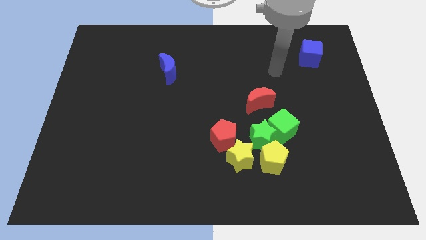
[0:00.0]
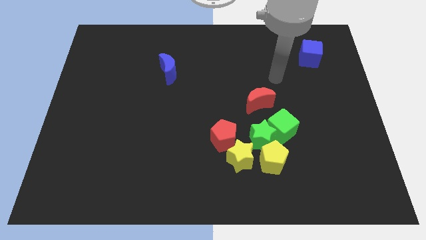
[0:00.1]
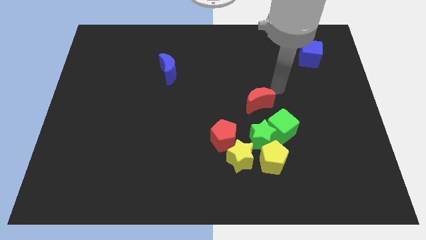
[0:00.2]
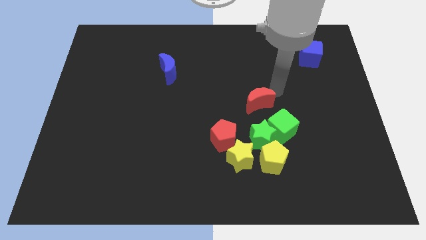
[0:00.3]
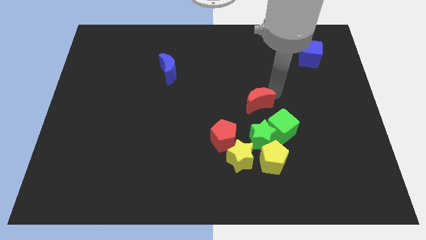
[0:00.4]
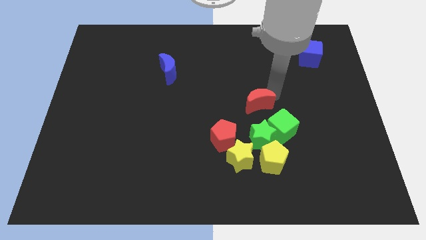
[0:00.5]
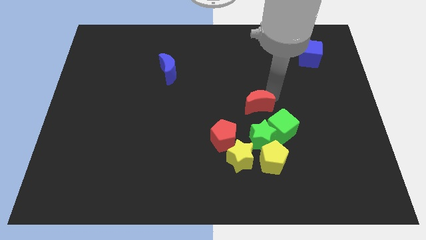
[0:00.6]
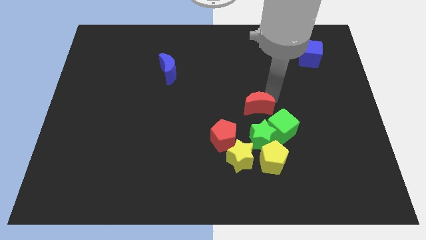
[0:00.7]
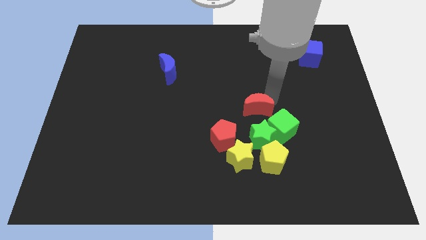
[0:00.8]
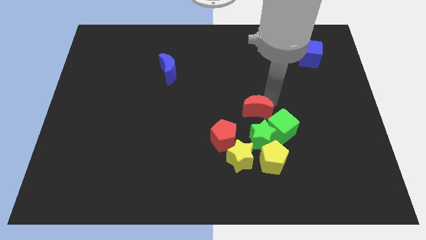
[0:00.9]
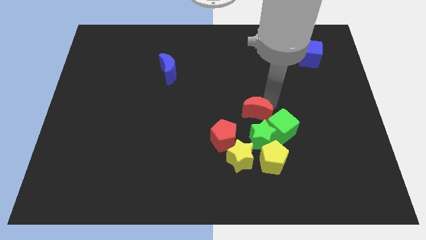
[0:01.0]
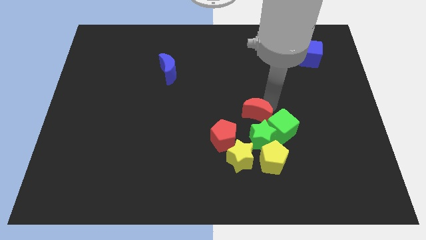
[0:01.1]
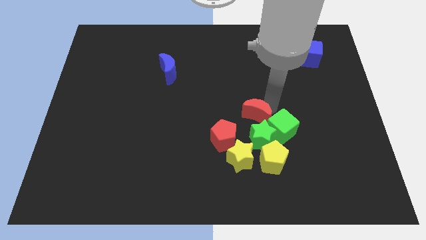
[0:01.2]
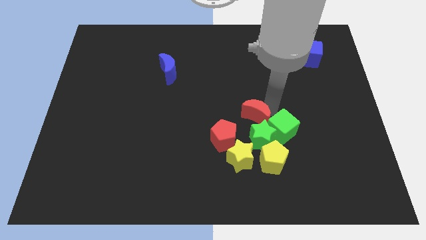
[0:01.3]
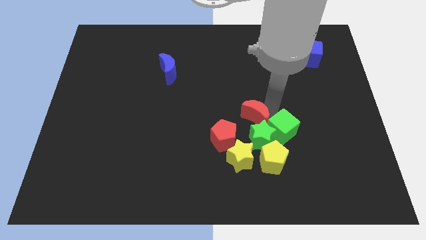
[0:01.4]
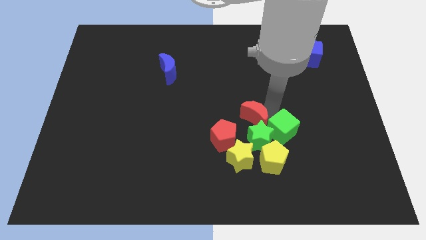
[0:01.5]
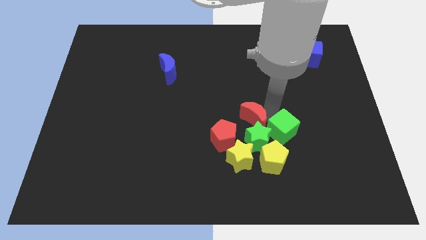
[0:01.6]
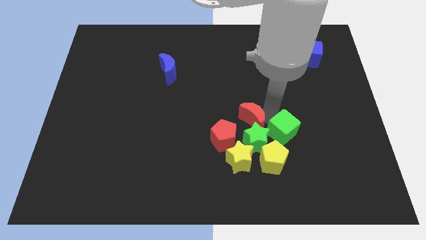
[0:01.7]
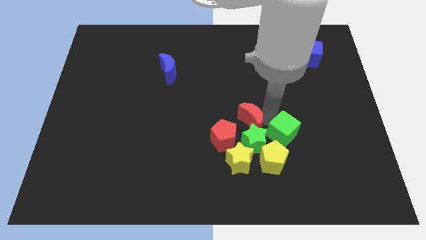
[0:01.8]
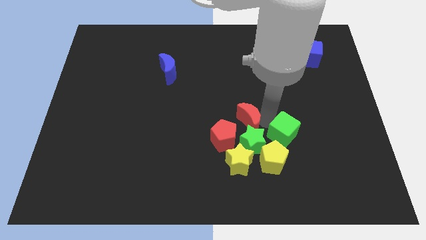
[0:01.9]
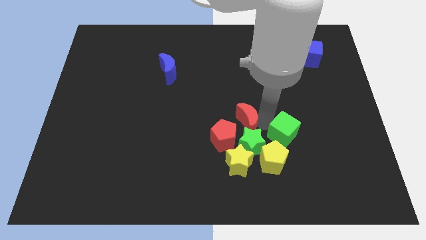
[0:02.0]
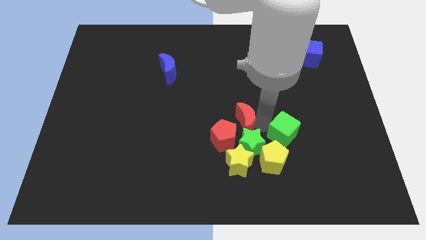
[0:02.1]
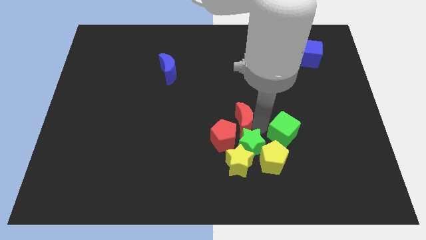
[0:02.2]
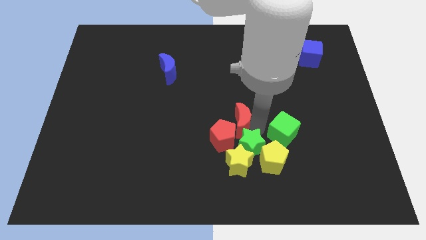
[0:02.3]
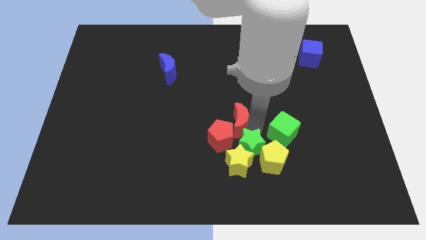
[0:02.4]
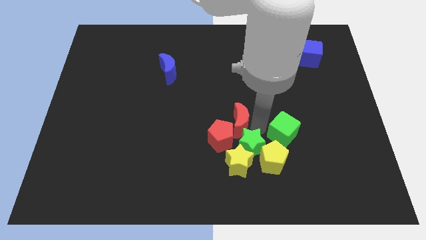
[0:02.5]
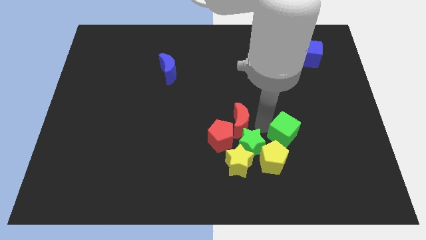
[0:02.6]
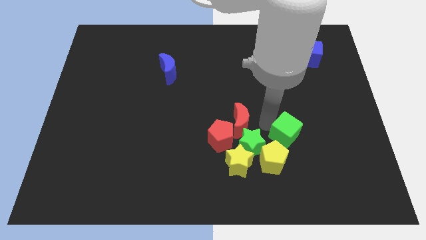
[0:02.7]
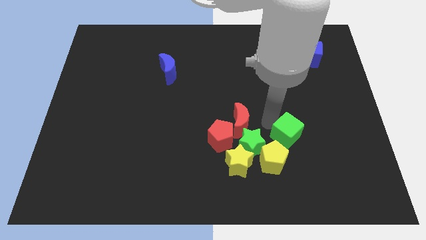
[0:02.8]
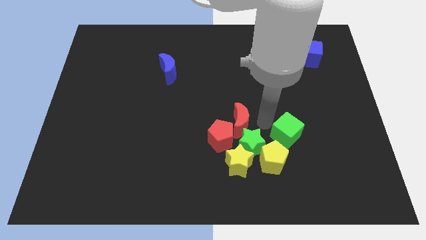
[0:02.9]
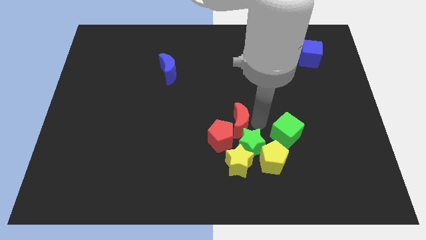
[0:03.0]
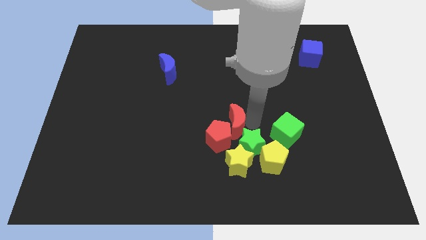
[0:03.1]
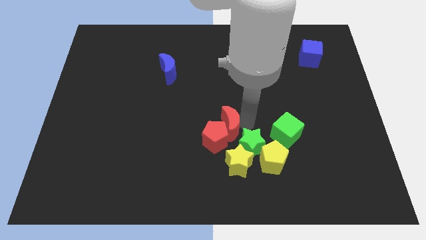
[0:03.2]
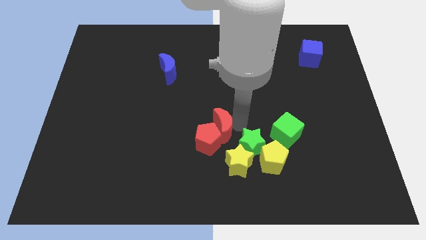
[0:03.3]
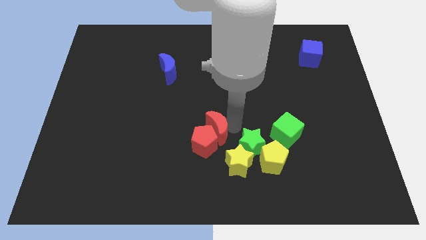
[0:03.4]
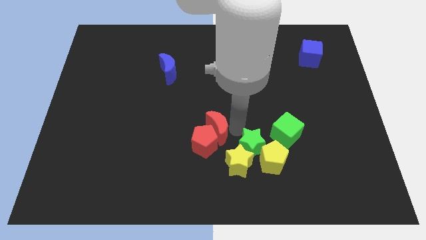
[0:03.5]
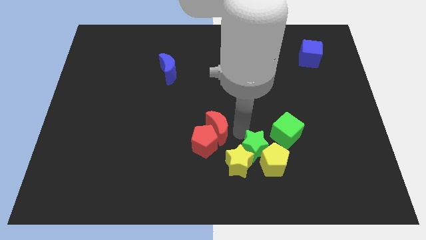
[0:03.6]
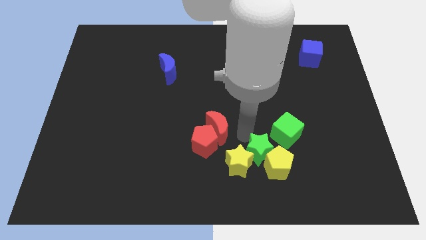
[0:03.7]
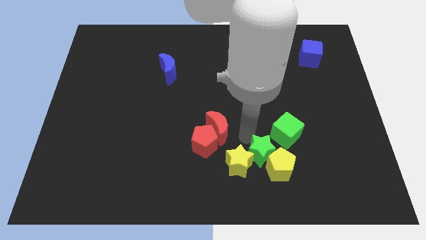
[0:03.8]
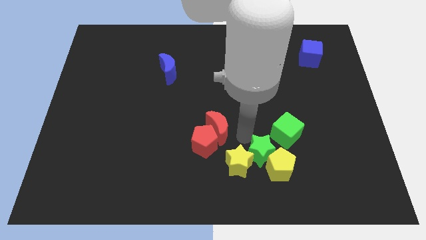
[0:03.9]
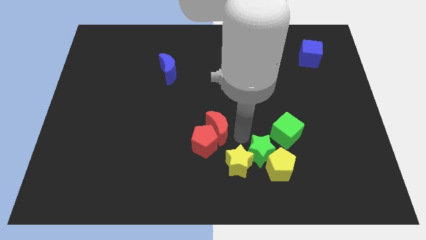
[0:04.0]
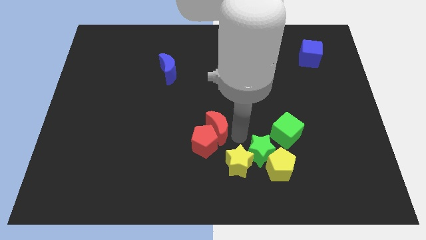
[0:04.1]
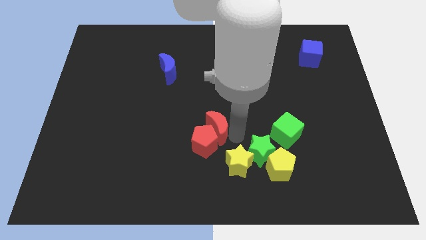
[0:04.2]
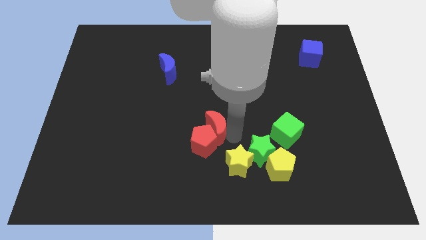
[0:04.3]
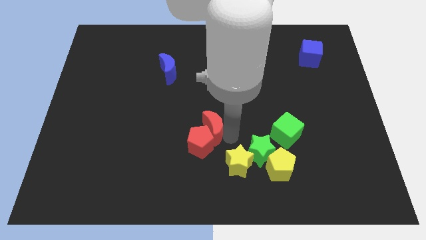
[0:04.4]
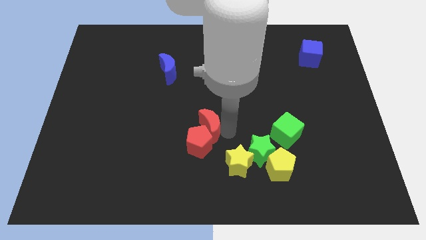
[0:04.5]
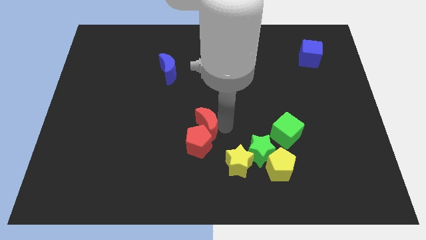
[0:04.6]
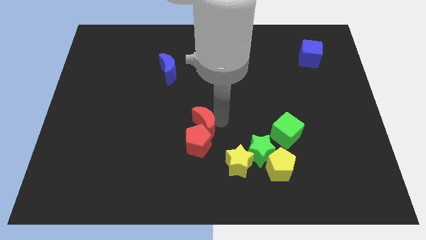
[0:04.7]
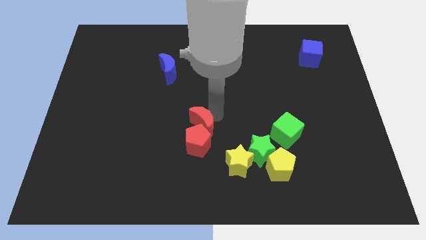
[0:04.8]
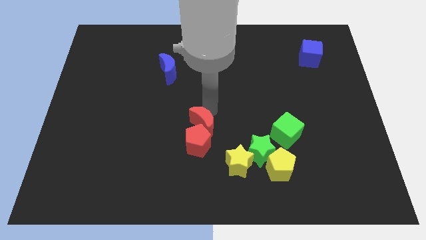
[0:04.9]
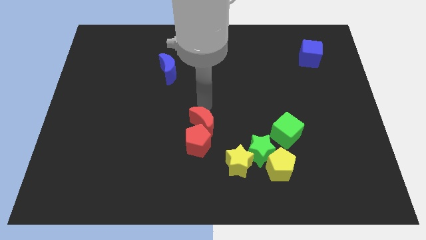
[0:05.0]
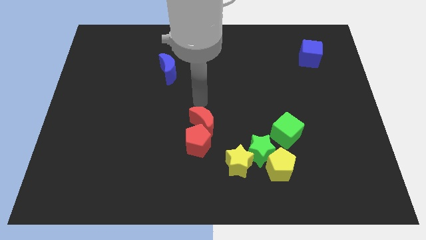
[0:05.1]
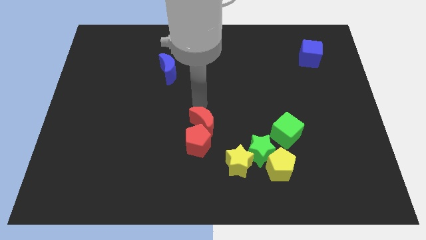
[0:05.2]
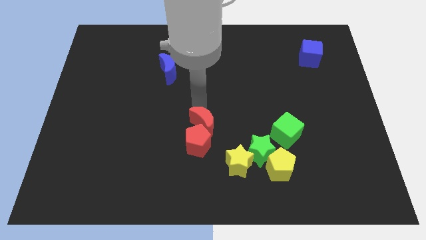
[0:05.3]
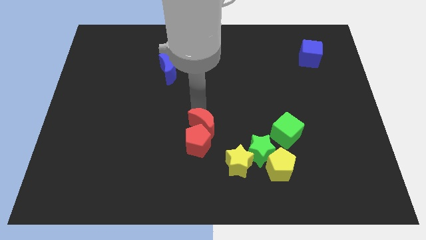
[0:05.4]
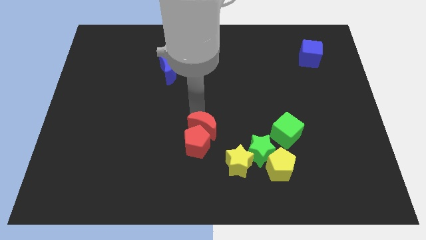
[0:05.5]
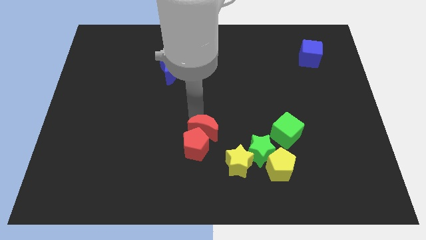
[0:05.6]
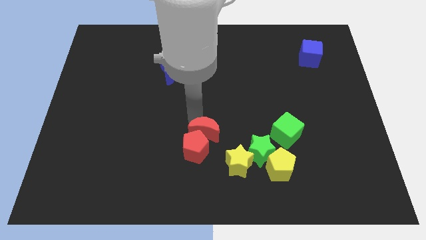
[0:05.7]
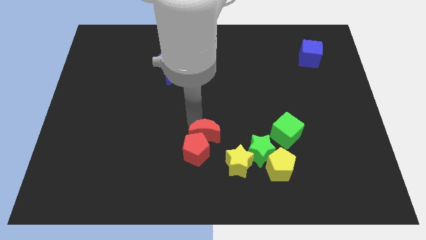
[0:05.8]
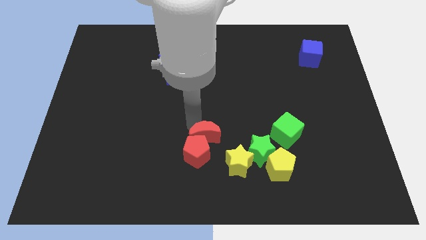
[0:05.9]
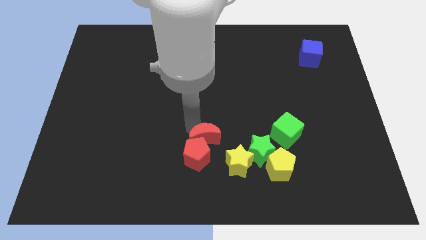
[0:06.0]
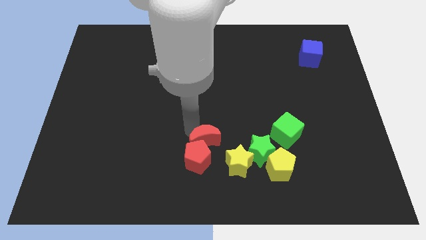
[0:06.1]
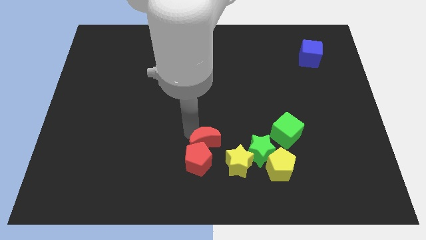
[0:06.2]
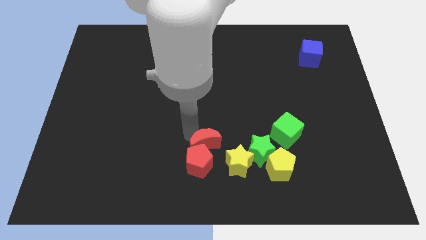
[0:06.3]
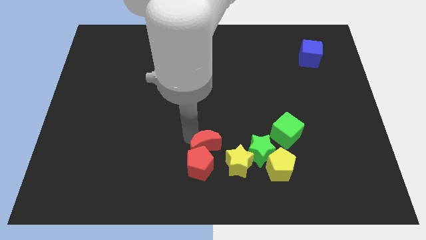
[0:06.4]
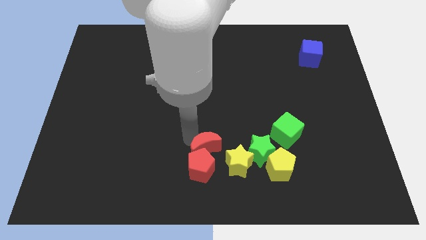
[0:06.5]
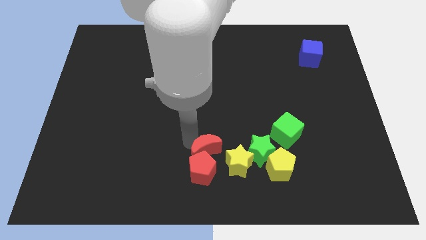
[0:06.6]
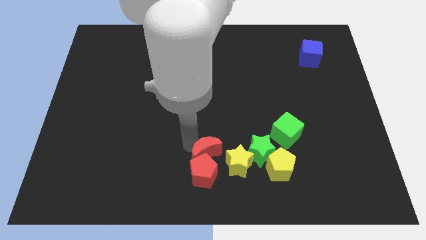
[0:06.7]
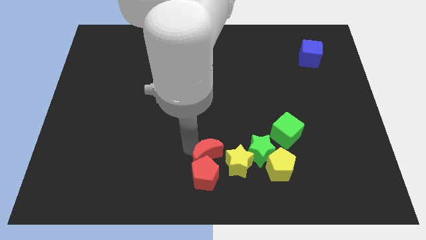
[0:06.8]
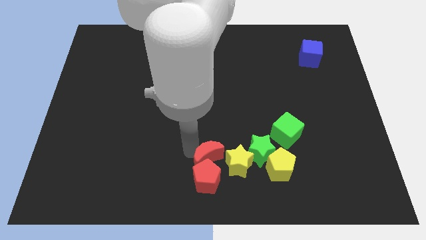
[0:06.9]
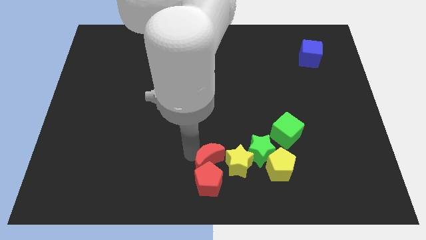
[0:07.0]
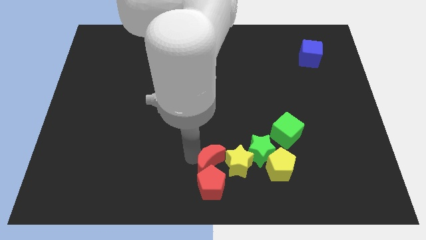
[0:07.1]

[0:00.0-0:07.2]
put the red moon to the yellow star
